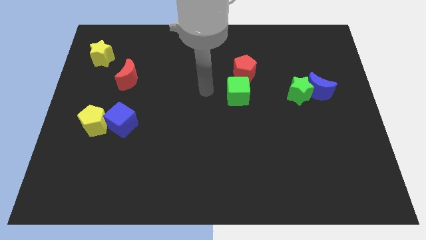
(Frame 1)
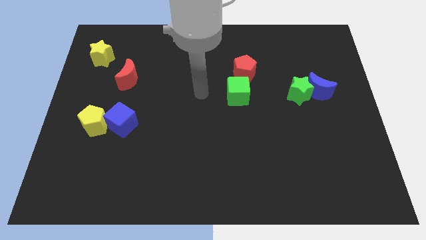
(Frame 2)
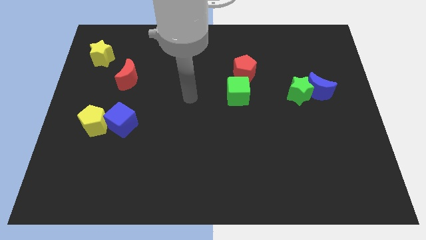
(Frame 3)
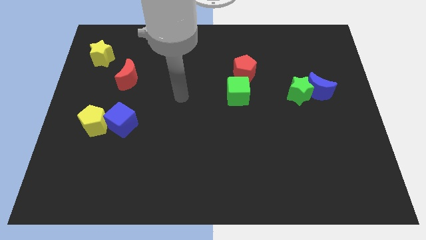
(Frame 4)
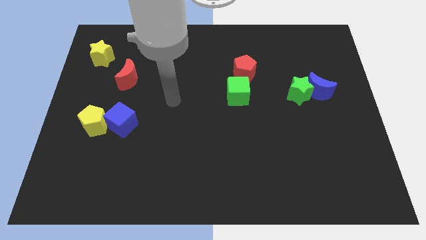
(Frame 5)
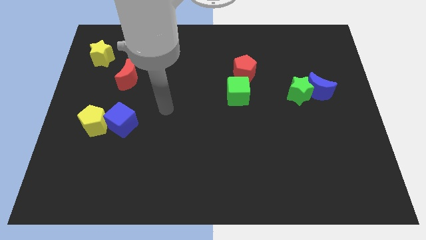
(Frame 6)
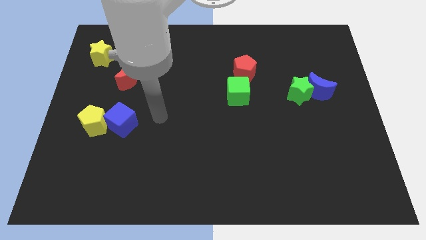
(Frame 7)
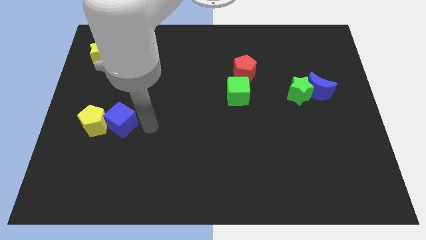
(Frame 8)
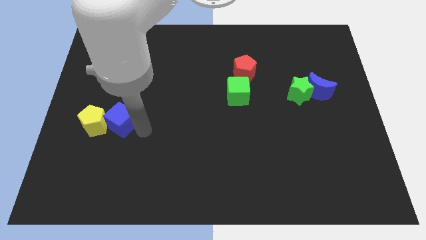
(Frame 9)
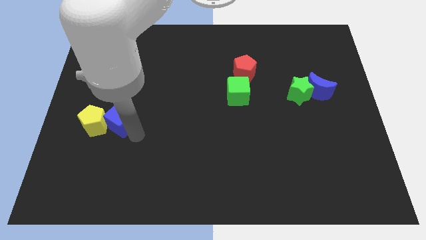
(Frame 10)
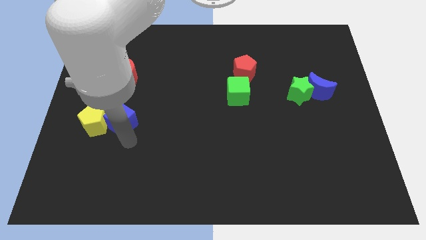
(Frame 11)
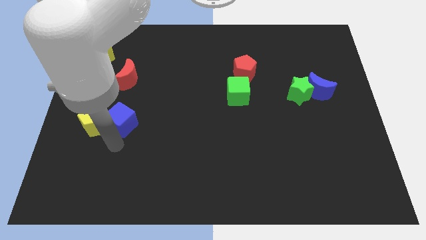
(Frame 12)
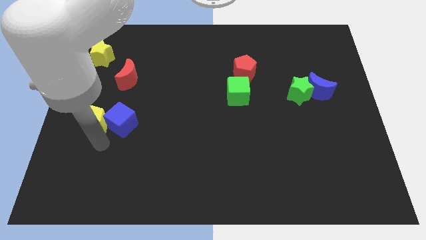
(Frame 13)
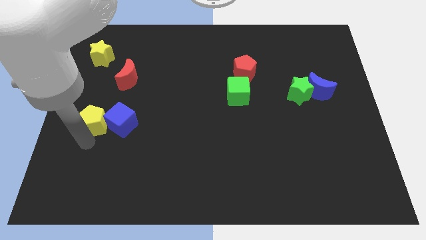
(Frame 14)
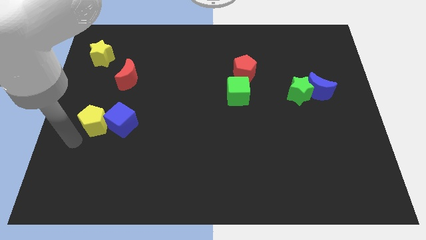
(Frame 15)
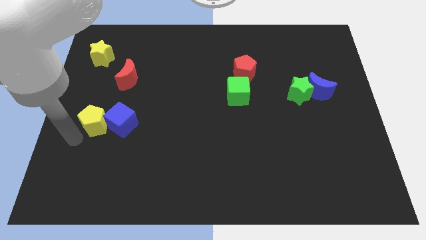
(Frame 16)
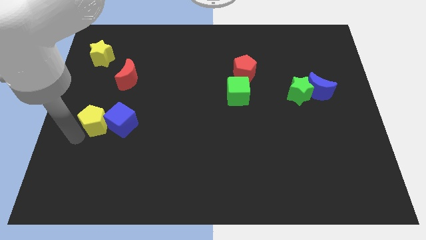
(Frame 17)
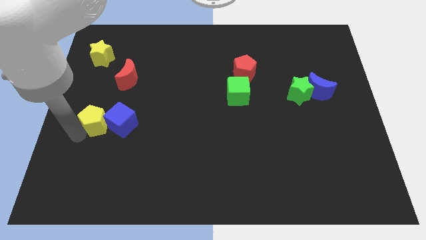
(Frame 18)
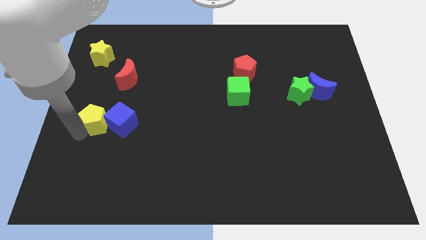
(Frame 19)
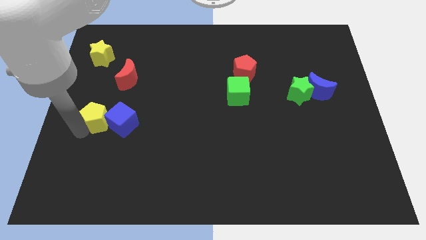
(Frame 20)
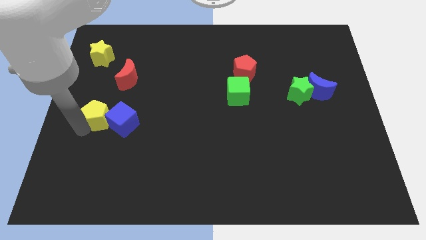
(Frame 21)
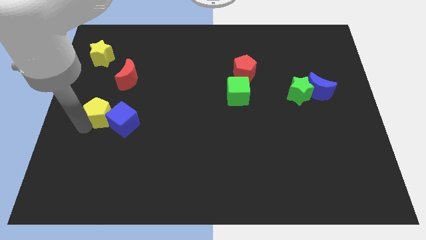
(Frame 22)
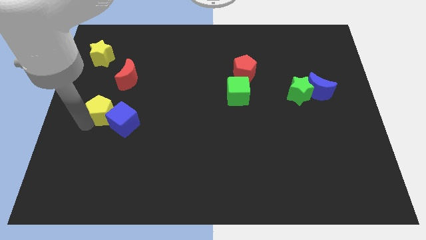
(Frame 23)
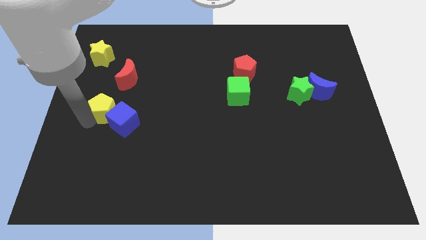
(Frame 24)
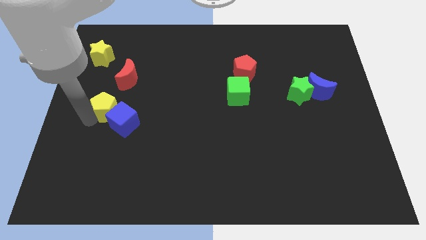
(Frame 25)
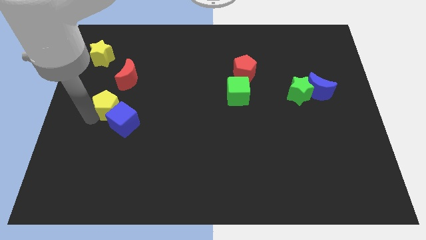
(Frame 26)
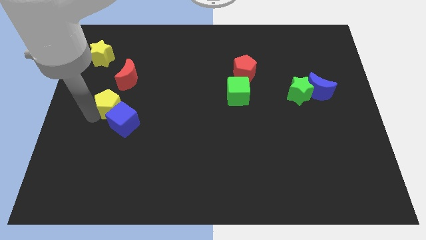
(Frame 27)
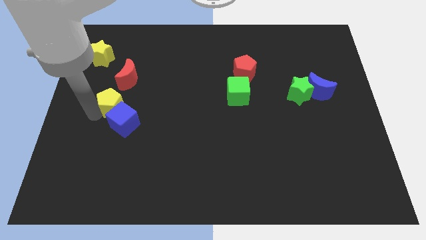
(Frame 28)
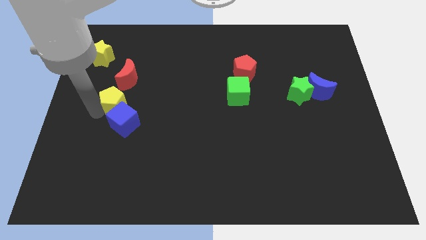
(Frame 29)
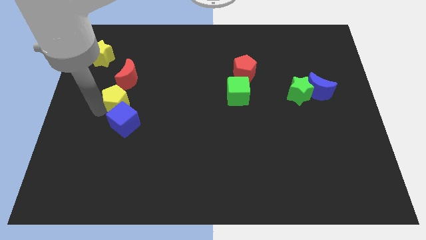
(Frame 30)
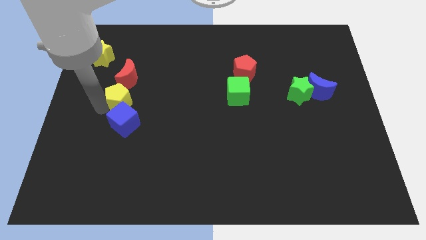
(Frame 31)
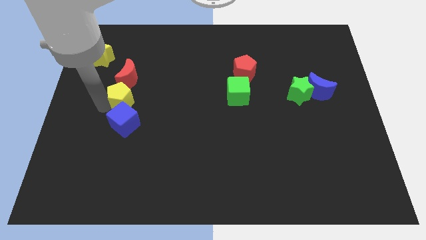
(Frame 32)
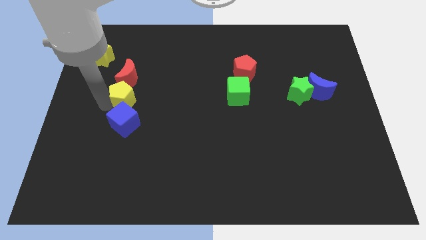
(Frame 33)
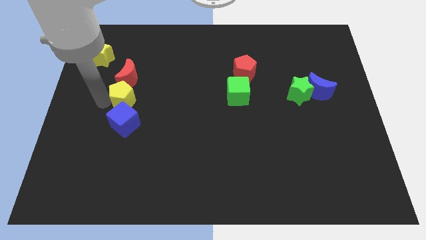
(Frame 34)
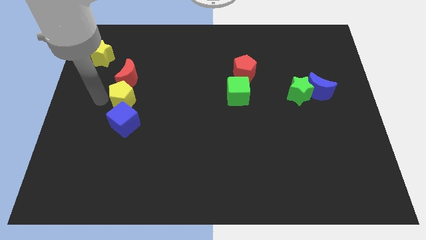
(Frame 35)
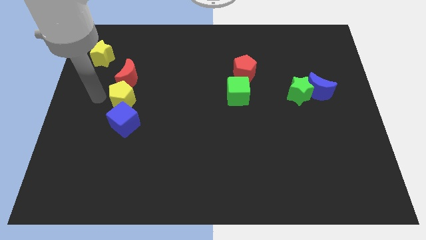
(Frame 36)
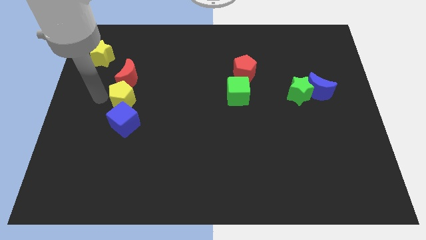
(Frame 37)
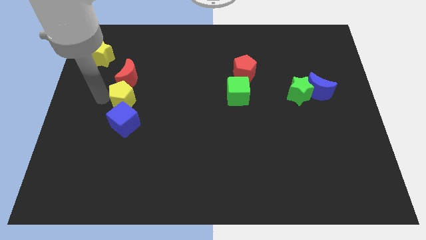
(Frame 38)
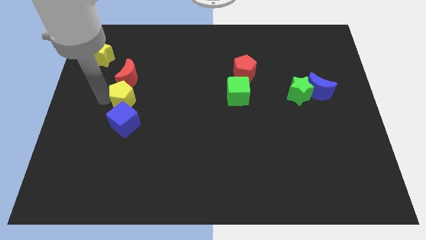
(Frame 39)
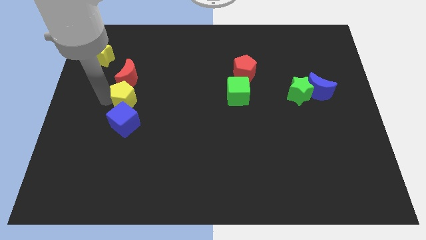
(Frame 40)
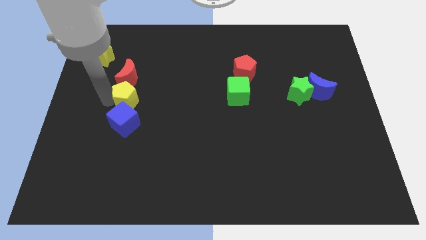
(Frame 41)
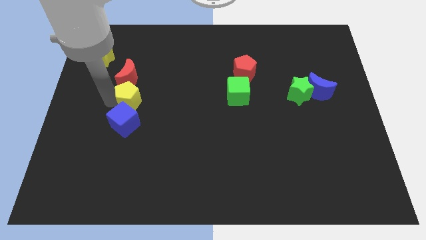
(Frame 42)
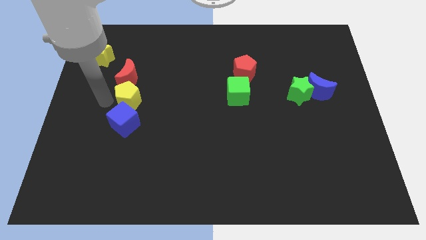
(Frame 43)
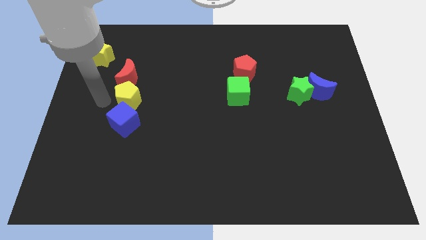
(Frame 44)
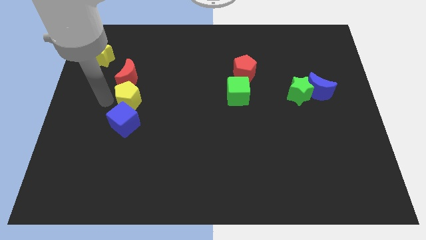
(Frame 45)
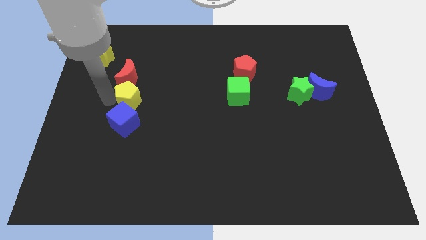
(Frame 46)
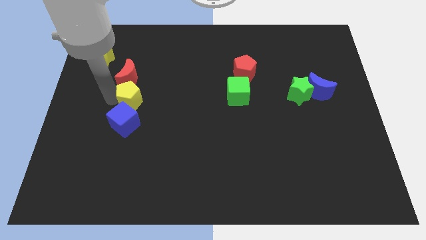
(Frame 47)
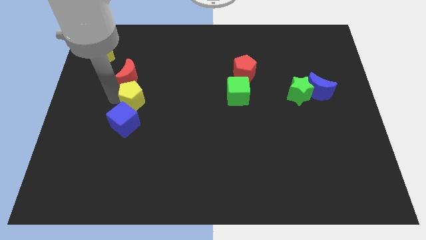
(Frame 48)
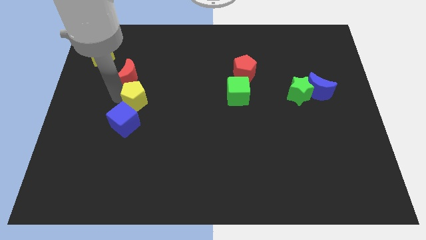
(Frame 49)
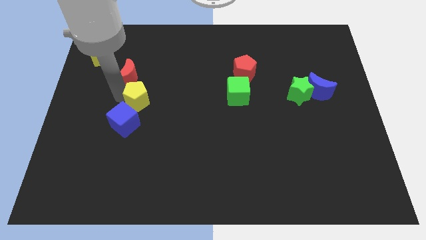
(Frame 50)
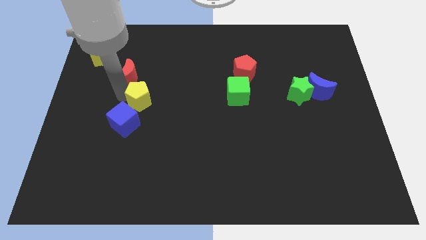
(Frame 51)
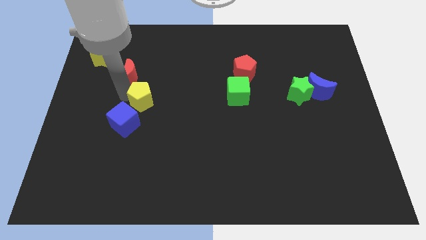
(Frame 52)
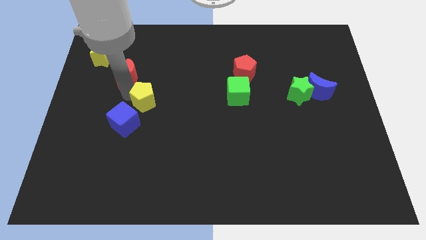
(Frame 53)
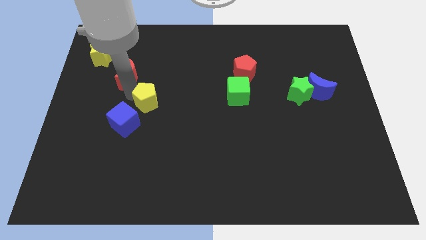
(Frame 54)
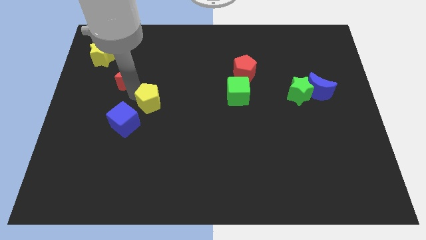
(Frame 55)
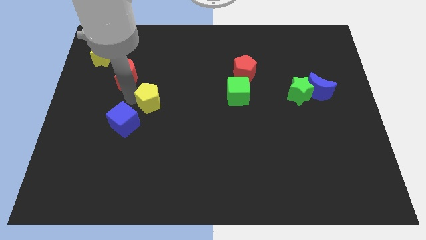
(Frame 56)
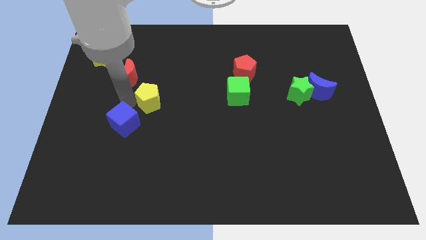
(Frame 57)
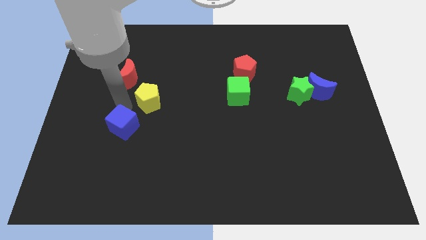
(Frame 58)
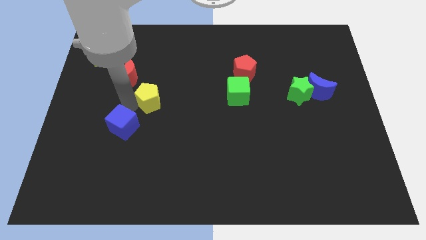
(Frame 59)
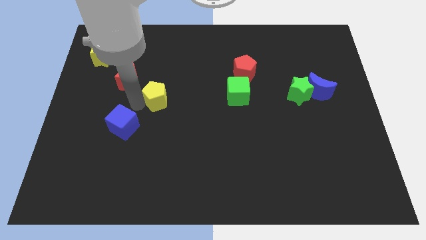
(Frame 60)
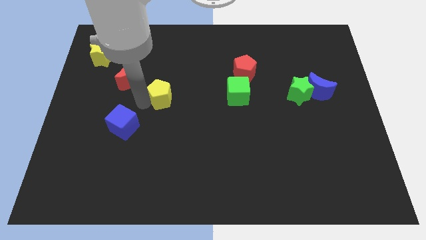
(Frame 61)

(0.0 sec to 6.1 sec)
push the yellow pentagon to the center of the board
